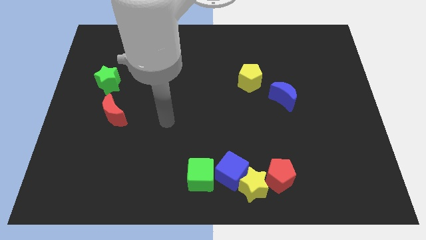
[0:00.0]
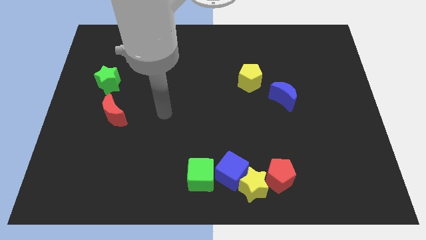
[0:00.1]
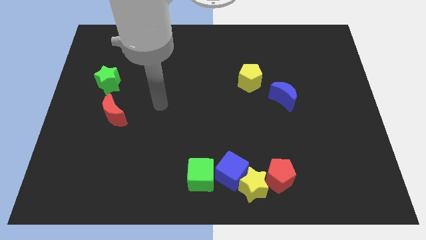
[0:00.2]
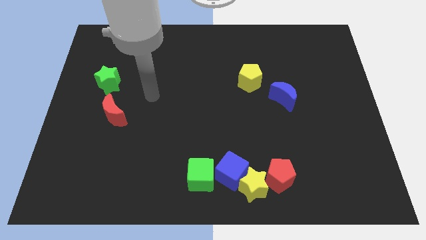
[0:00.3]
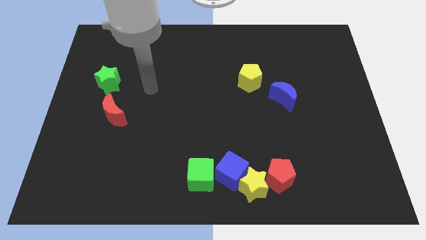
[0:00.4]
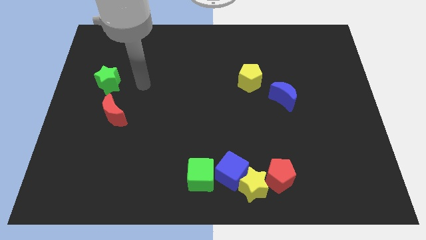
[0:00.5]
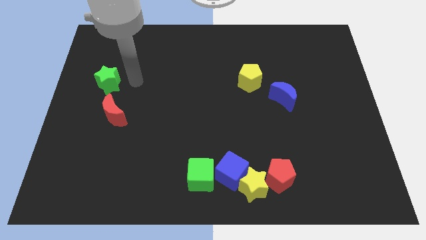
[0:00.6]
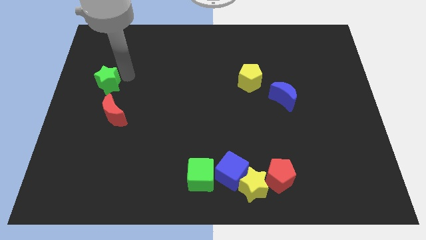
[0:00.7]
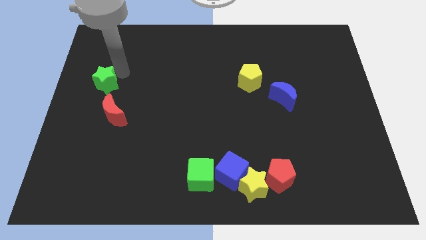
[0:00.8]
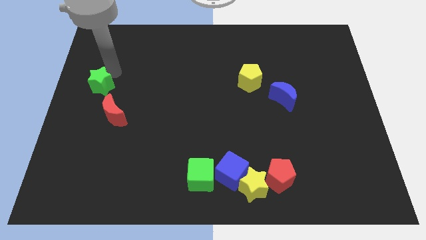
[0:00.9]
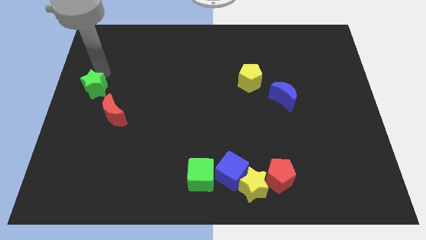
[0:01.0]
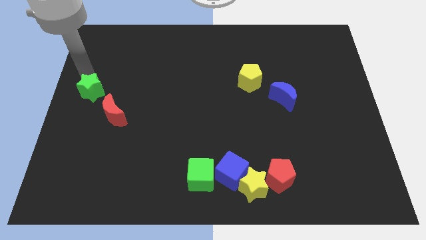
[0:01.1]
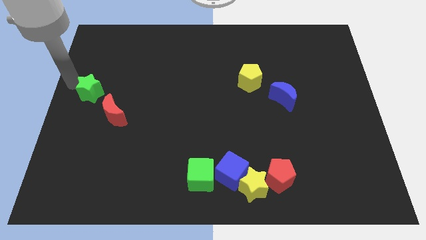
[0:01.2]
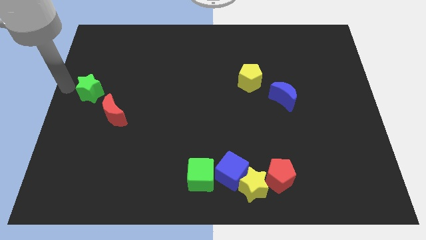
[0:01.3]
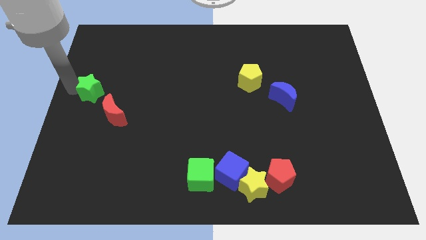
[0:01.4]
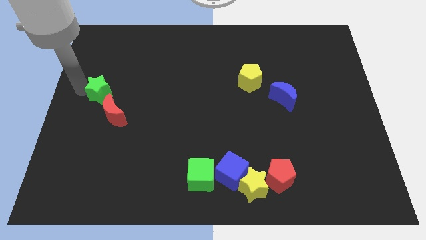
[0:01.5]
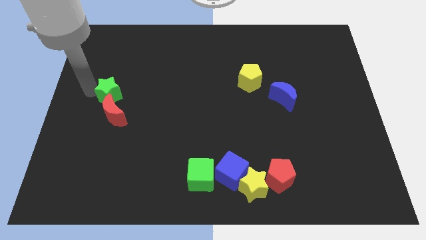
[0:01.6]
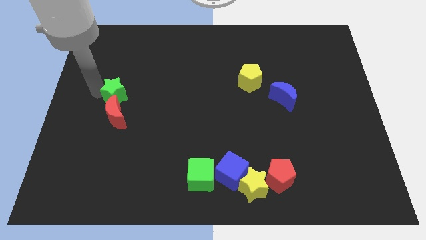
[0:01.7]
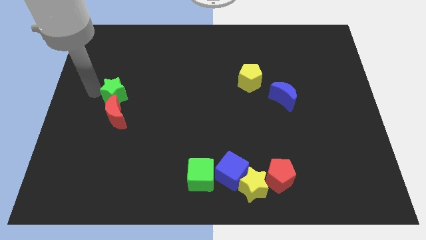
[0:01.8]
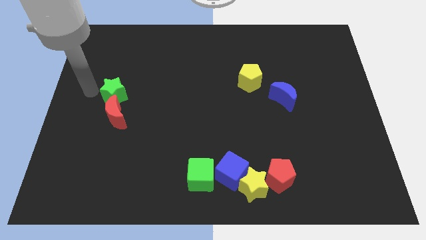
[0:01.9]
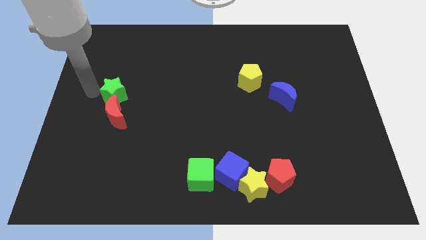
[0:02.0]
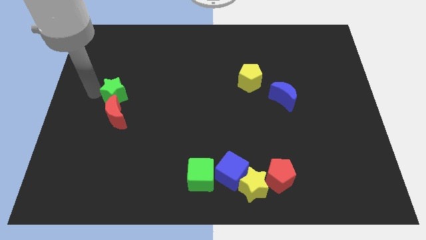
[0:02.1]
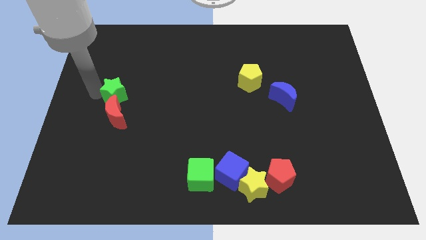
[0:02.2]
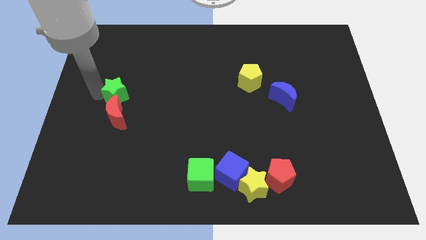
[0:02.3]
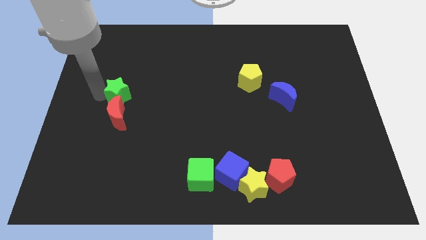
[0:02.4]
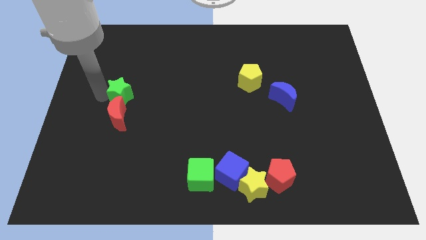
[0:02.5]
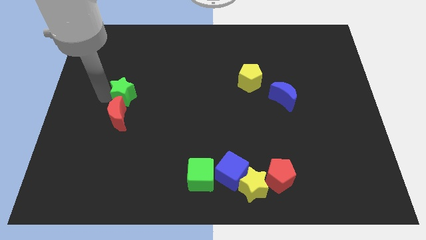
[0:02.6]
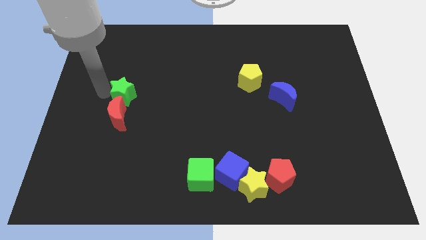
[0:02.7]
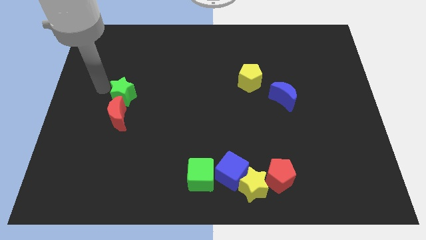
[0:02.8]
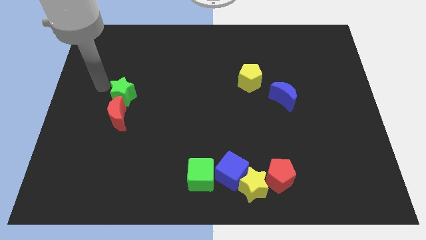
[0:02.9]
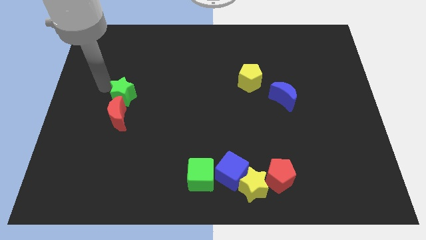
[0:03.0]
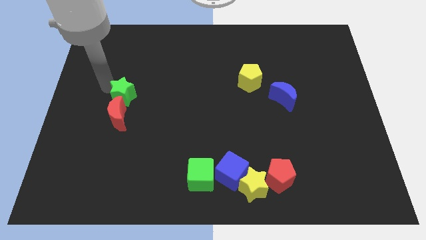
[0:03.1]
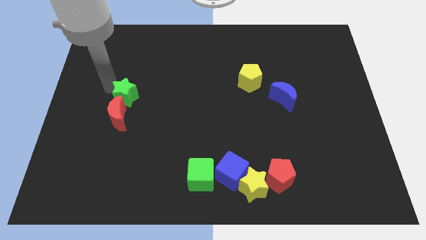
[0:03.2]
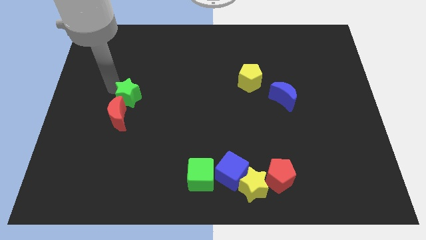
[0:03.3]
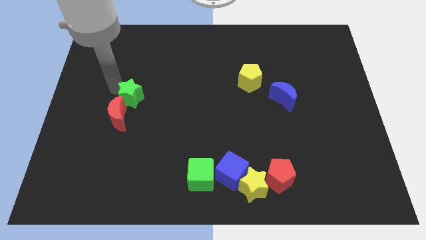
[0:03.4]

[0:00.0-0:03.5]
slide the green star downwards and right a little

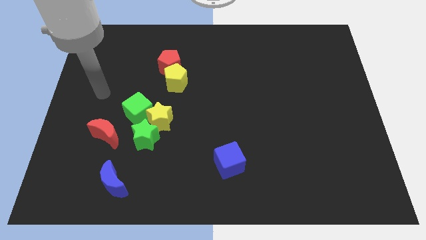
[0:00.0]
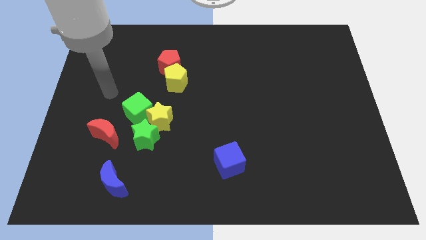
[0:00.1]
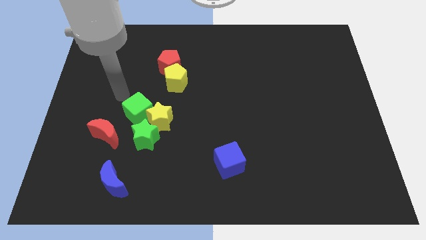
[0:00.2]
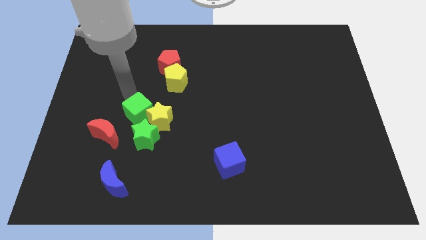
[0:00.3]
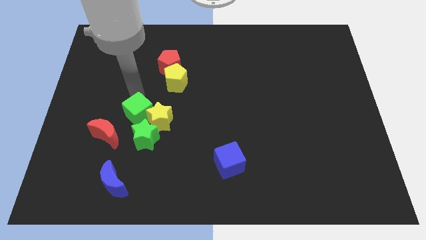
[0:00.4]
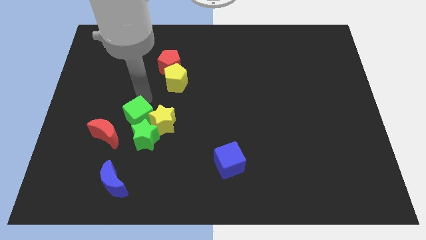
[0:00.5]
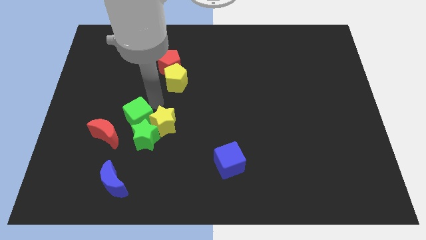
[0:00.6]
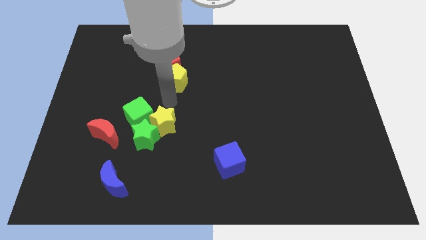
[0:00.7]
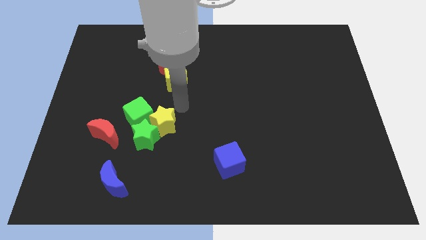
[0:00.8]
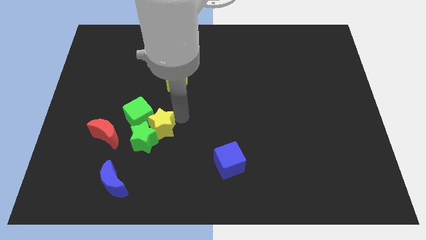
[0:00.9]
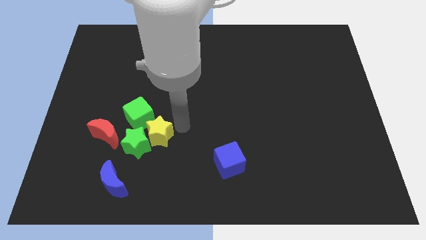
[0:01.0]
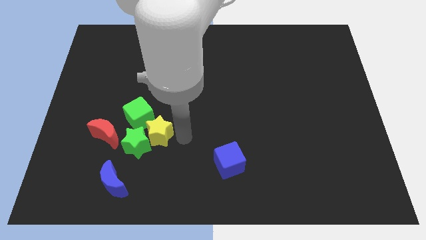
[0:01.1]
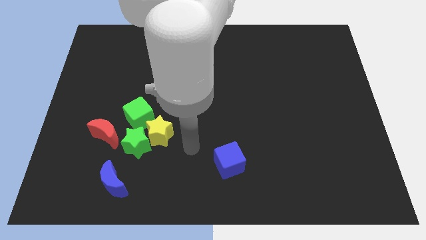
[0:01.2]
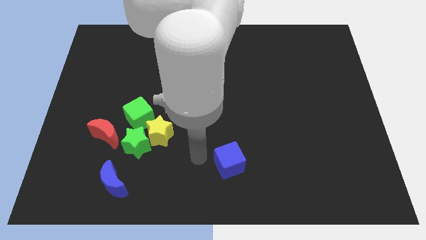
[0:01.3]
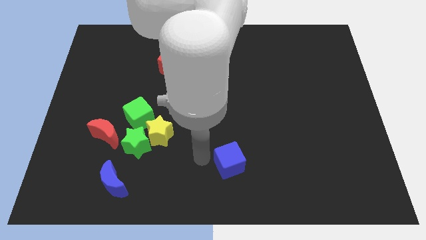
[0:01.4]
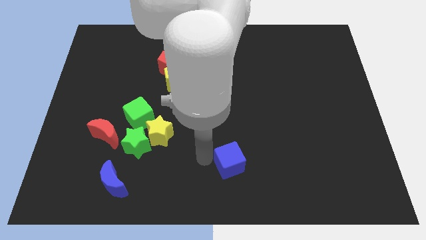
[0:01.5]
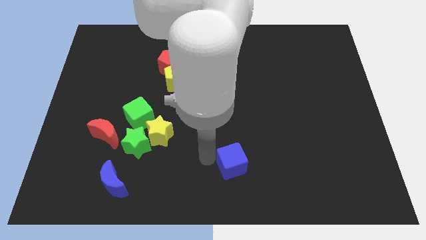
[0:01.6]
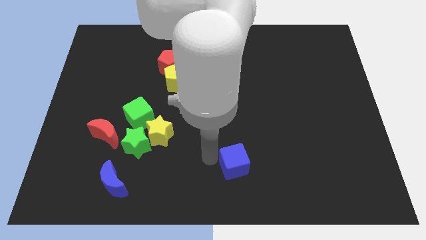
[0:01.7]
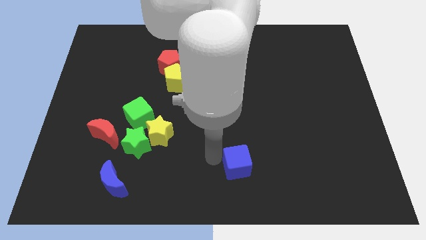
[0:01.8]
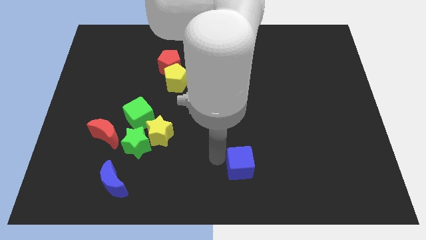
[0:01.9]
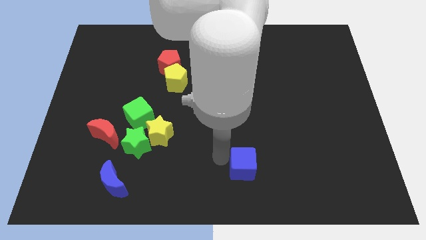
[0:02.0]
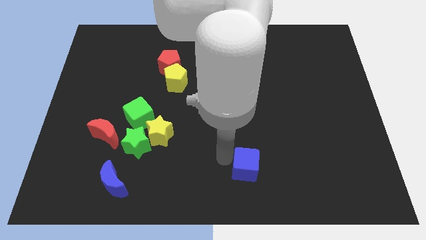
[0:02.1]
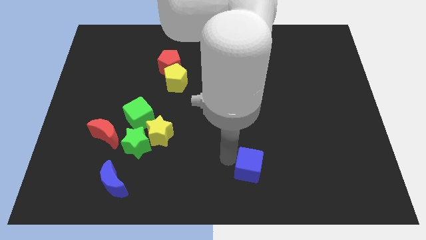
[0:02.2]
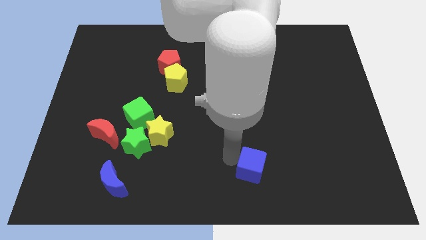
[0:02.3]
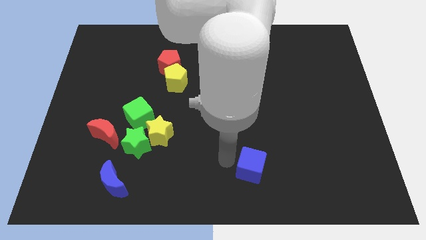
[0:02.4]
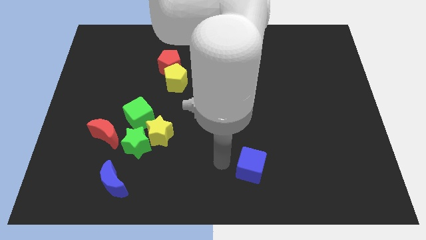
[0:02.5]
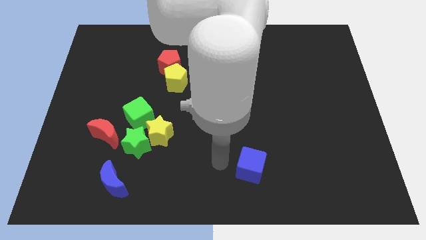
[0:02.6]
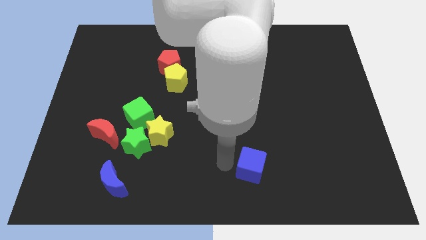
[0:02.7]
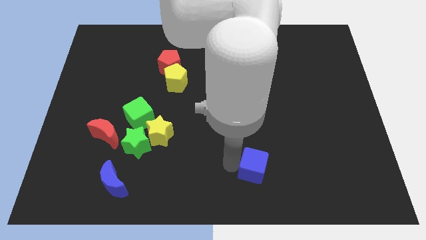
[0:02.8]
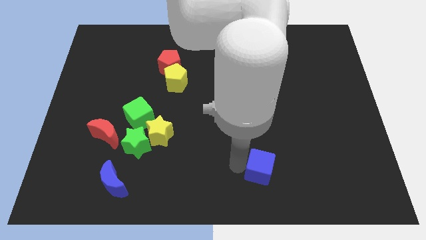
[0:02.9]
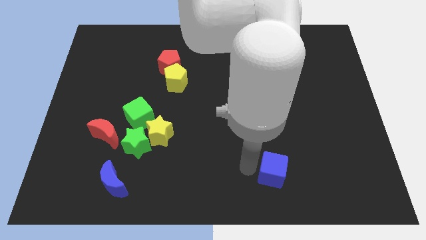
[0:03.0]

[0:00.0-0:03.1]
slightly slide the blue cube right

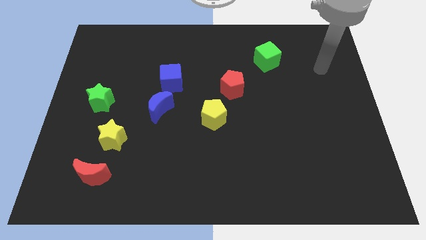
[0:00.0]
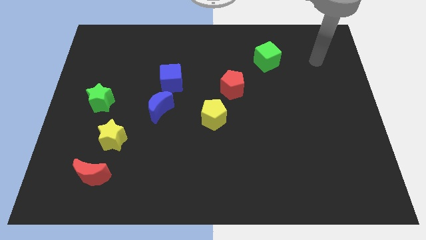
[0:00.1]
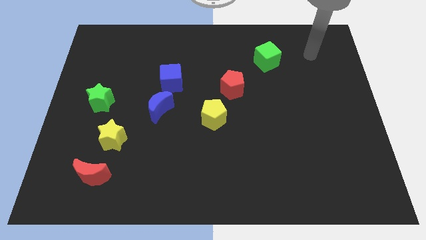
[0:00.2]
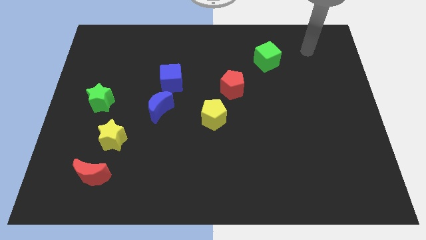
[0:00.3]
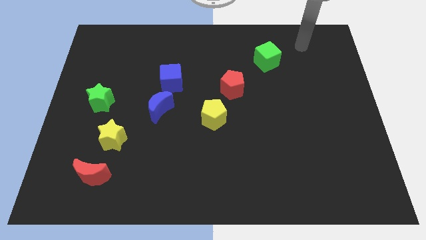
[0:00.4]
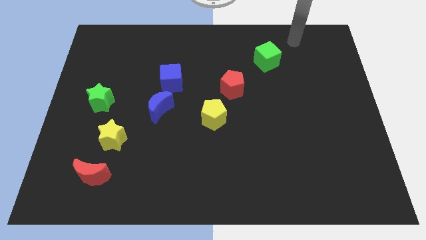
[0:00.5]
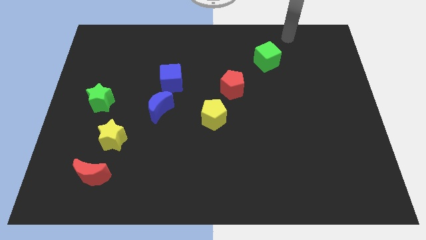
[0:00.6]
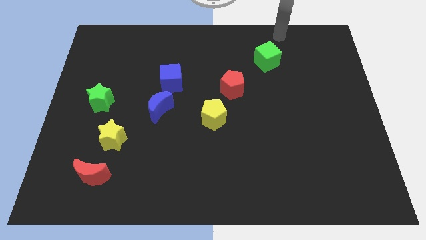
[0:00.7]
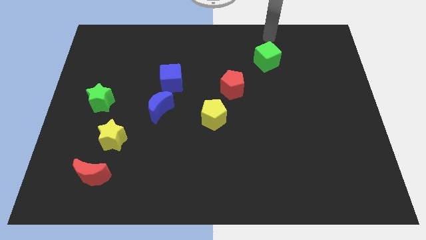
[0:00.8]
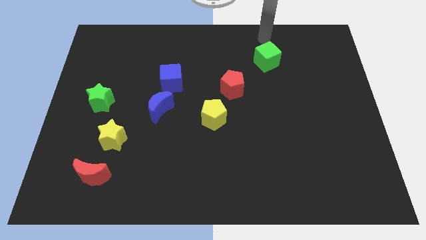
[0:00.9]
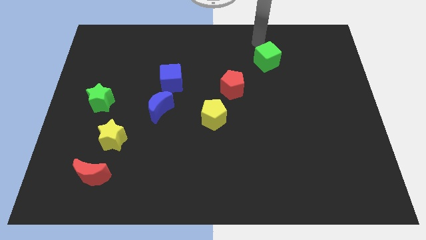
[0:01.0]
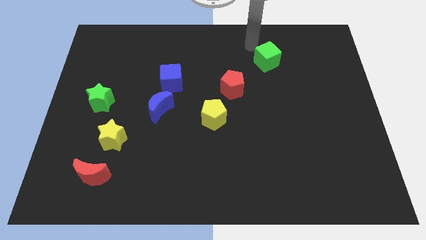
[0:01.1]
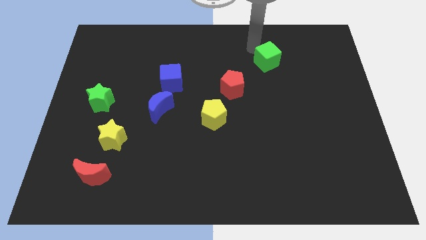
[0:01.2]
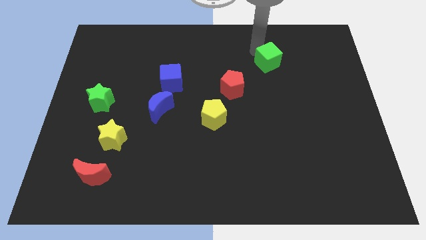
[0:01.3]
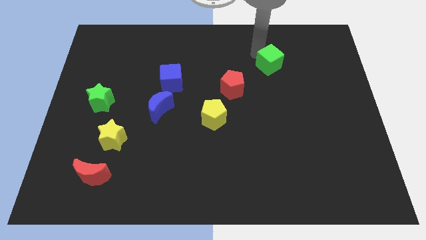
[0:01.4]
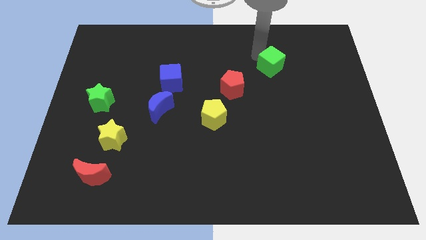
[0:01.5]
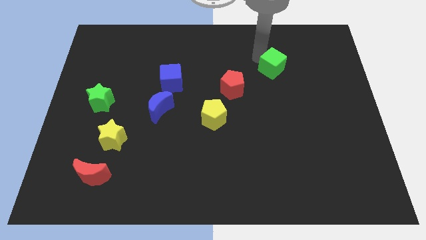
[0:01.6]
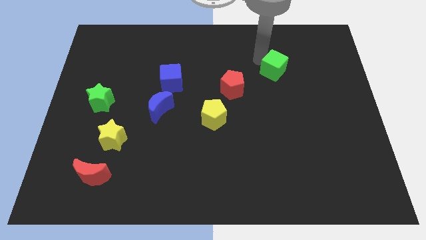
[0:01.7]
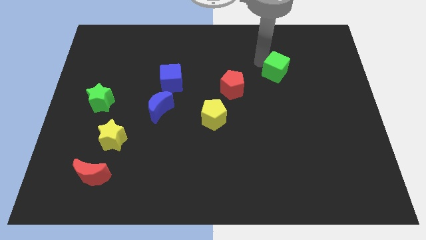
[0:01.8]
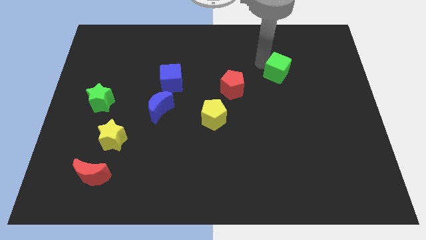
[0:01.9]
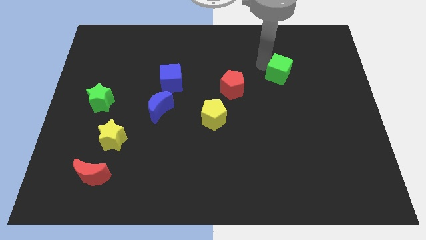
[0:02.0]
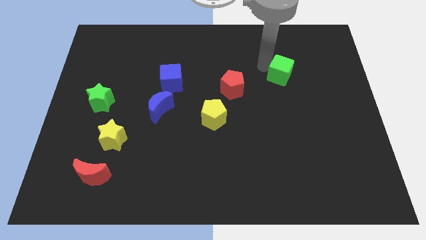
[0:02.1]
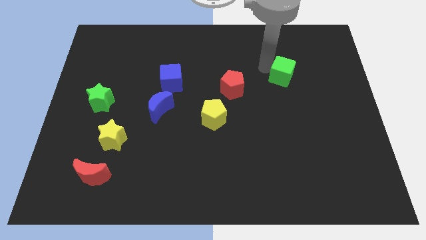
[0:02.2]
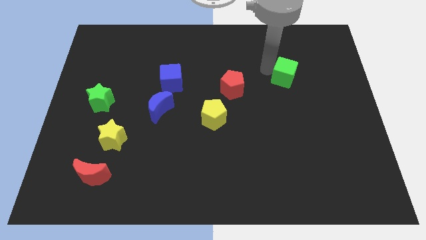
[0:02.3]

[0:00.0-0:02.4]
slightly move the green cube diagonally down and right
